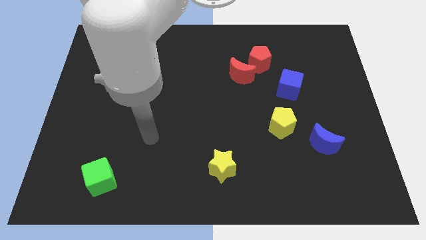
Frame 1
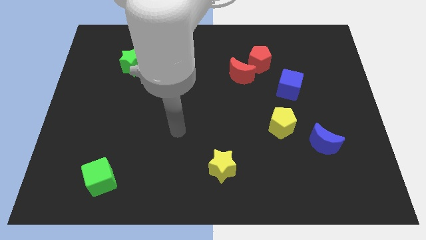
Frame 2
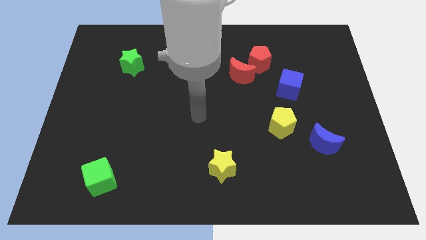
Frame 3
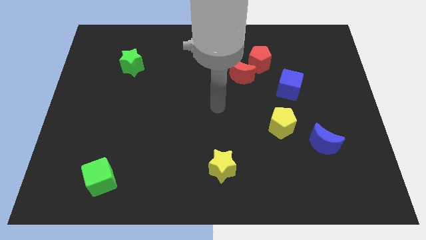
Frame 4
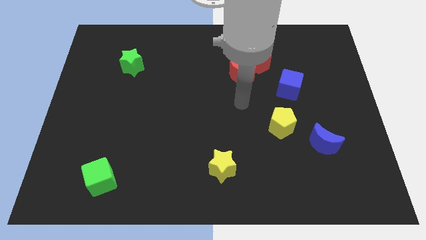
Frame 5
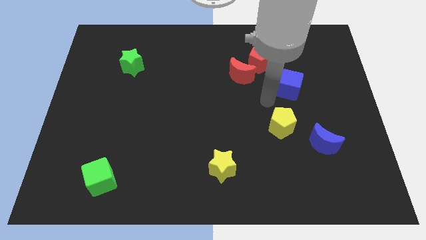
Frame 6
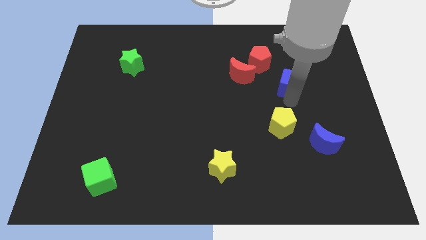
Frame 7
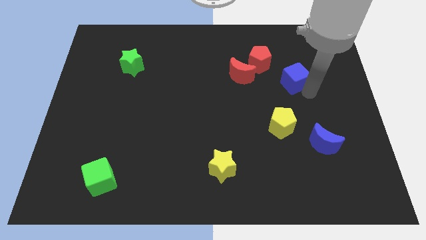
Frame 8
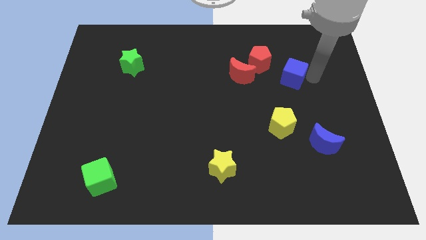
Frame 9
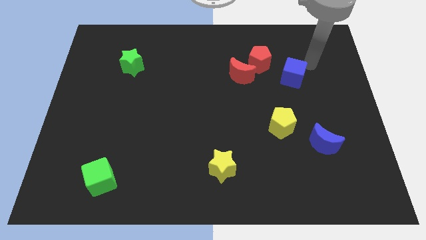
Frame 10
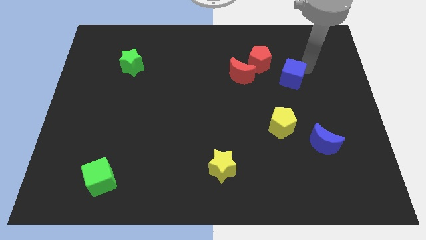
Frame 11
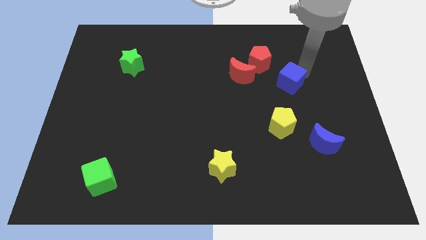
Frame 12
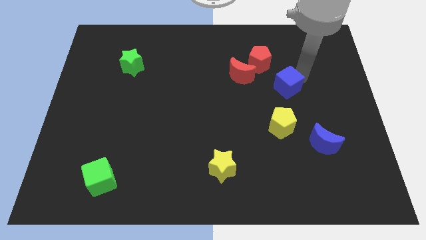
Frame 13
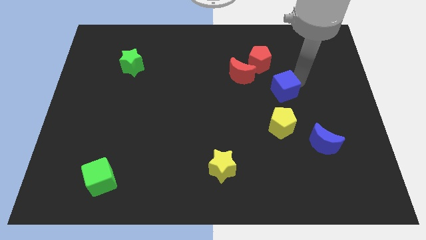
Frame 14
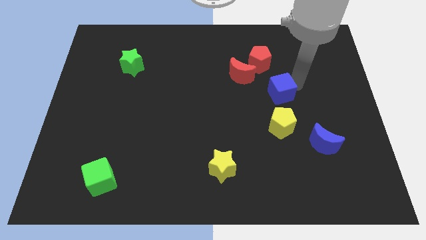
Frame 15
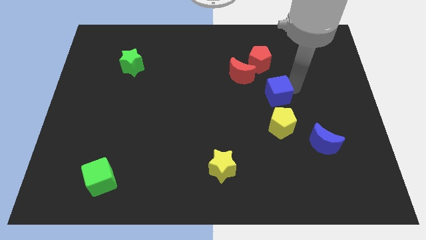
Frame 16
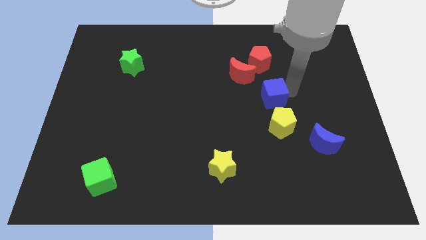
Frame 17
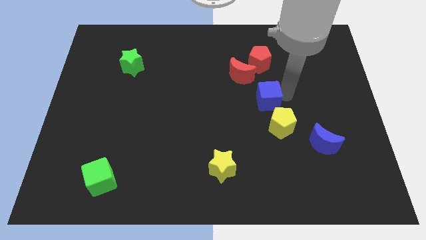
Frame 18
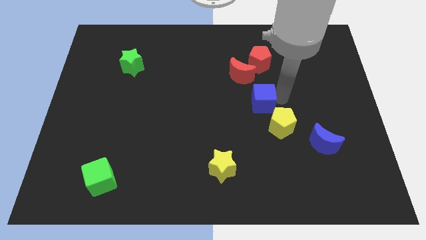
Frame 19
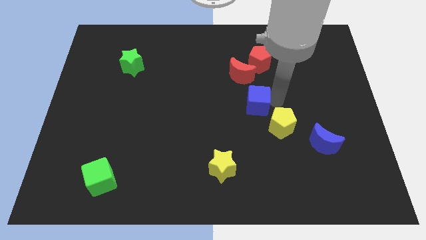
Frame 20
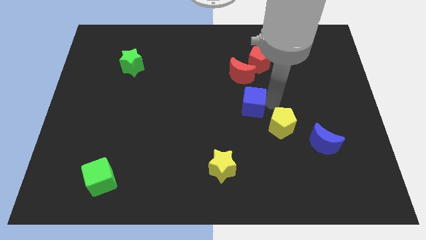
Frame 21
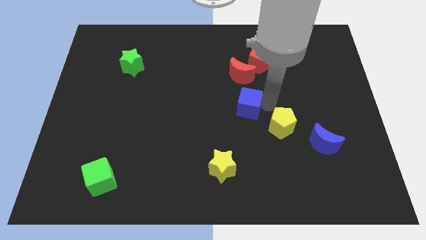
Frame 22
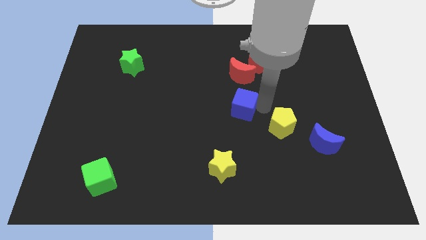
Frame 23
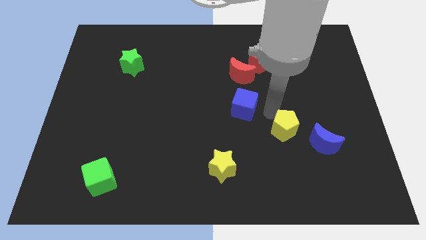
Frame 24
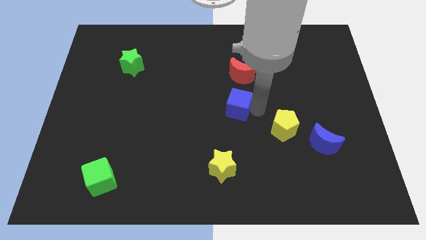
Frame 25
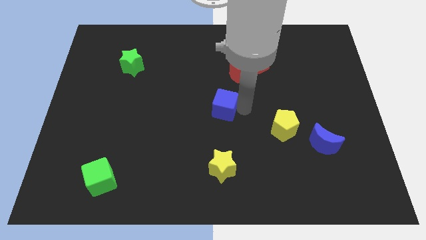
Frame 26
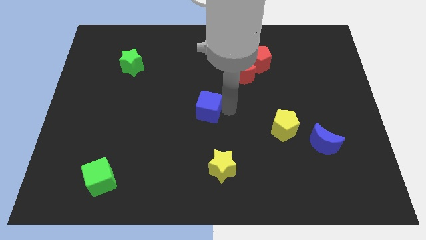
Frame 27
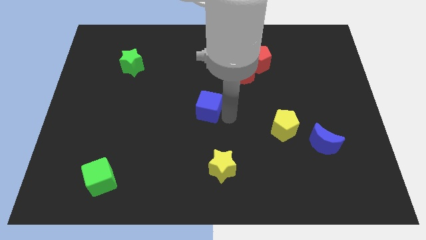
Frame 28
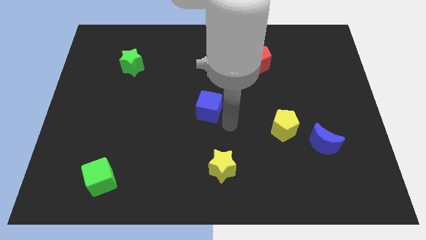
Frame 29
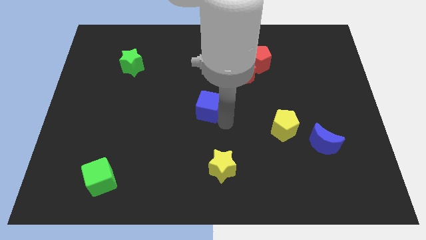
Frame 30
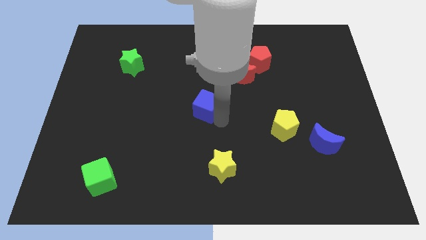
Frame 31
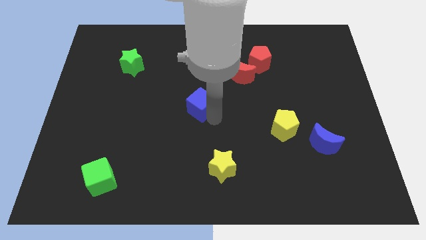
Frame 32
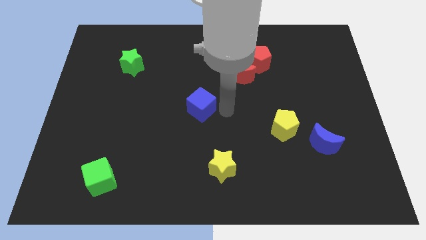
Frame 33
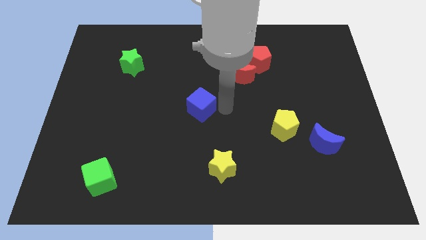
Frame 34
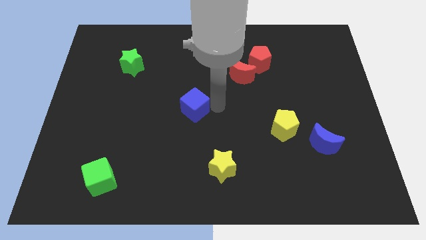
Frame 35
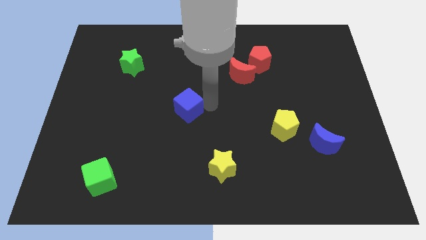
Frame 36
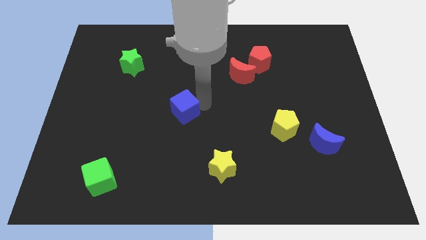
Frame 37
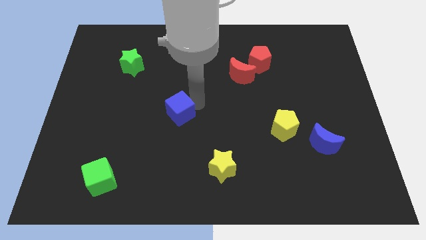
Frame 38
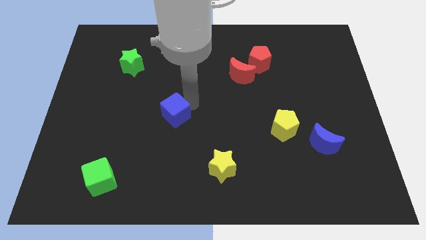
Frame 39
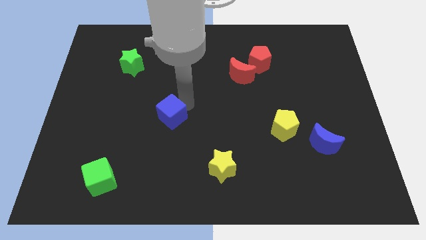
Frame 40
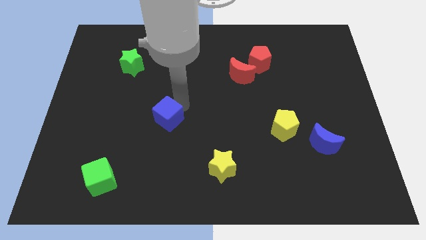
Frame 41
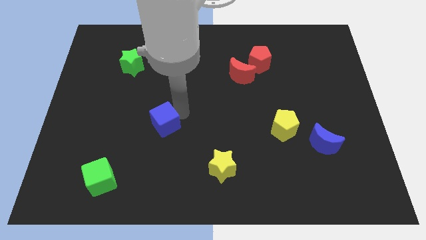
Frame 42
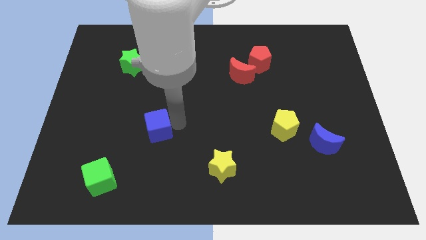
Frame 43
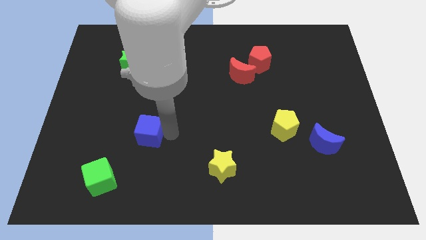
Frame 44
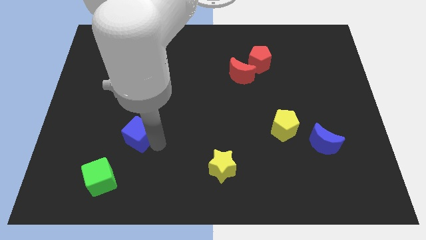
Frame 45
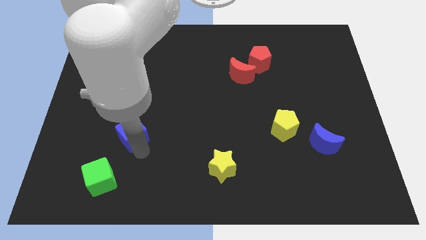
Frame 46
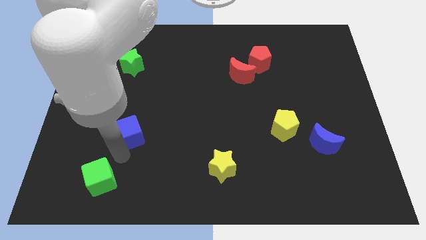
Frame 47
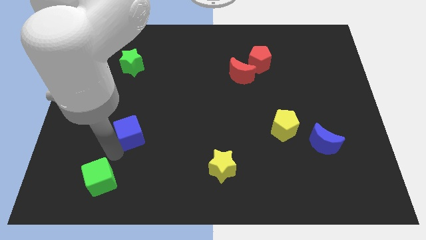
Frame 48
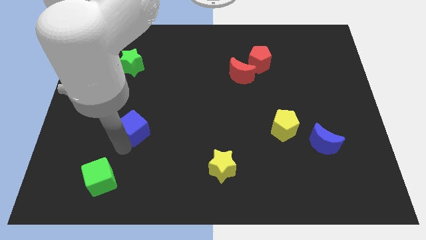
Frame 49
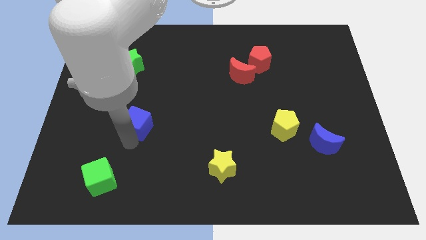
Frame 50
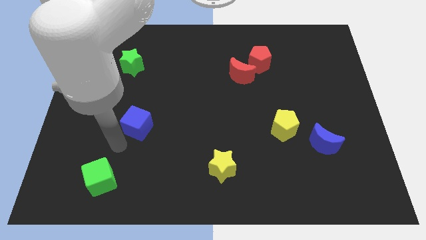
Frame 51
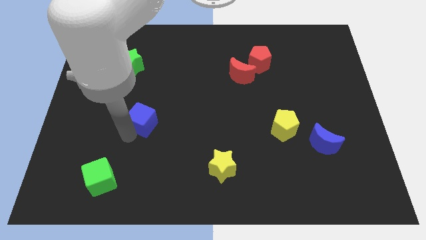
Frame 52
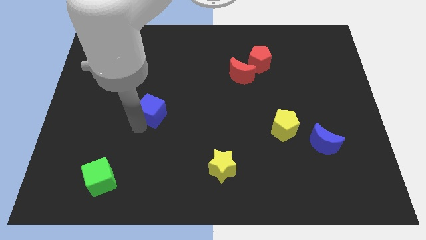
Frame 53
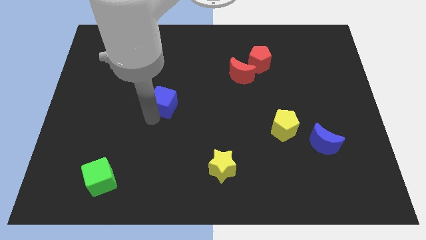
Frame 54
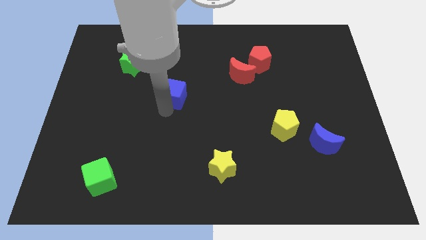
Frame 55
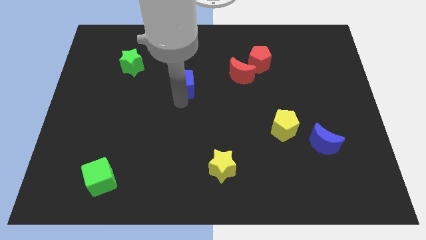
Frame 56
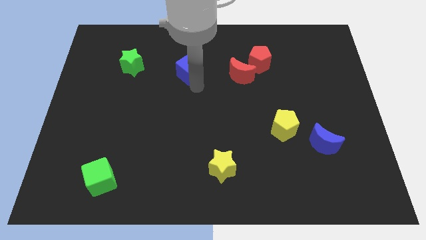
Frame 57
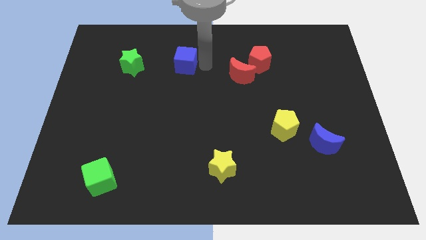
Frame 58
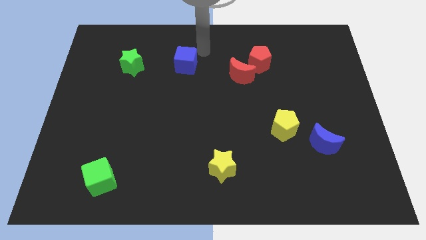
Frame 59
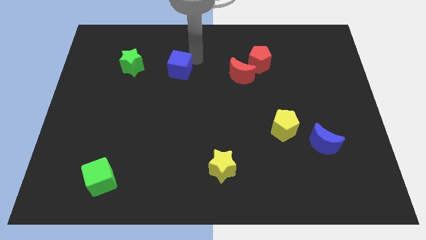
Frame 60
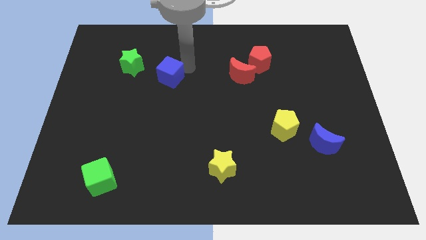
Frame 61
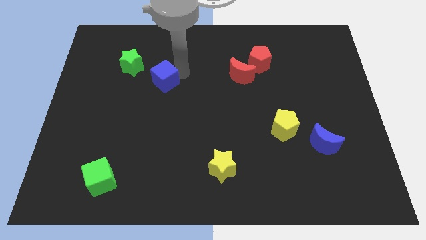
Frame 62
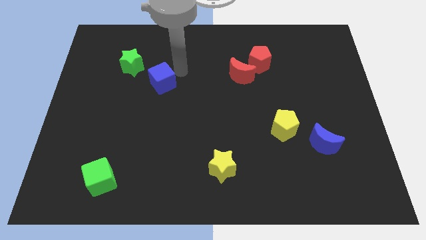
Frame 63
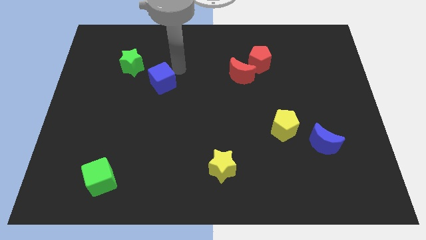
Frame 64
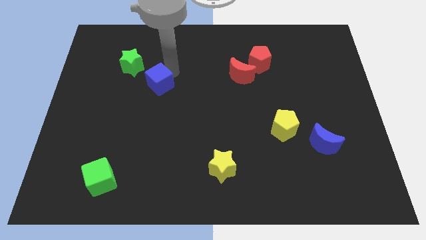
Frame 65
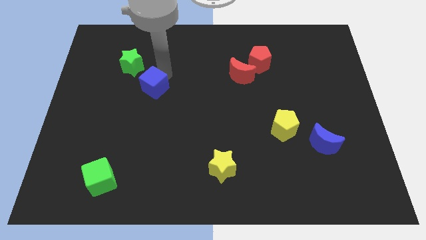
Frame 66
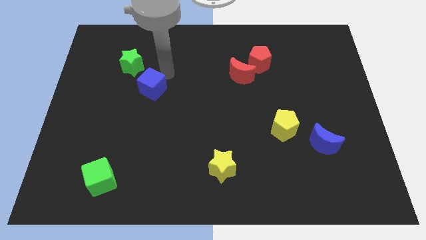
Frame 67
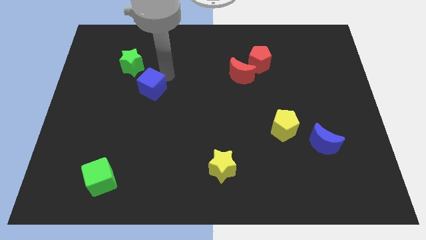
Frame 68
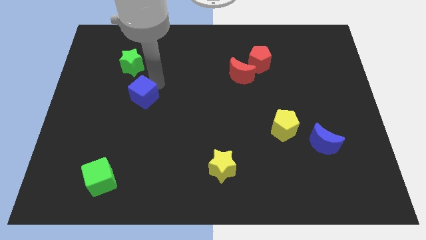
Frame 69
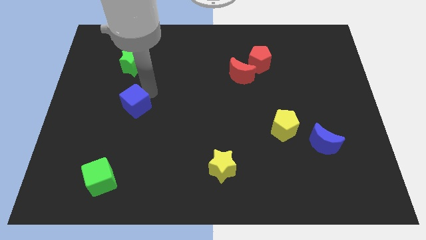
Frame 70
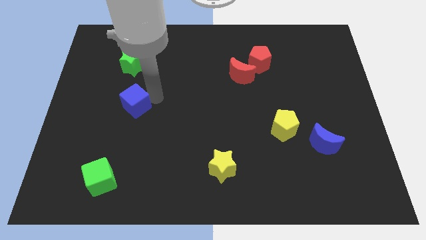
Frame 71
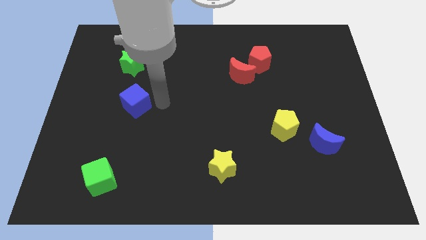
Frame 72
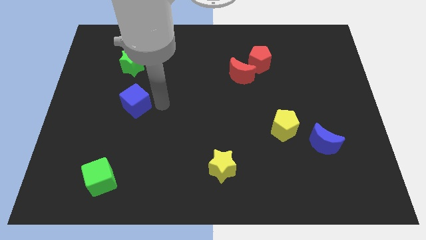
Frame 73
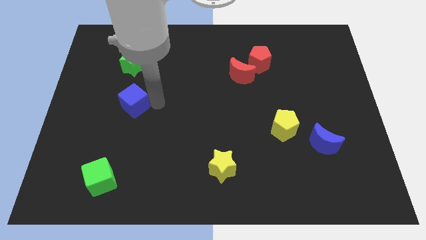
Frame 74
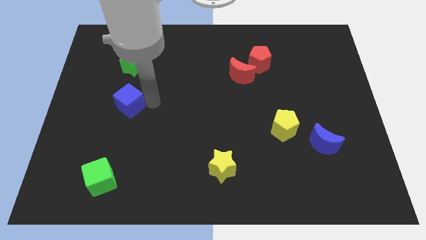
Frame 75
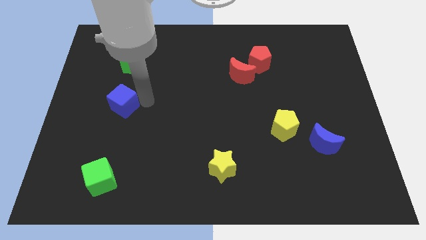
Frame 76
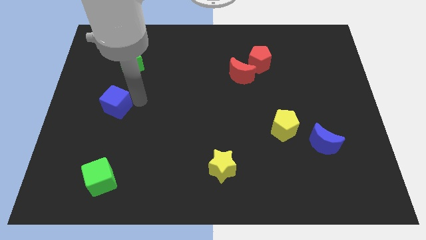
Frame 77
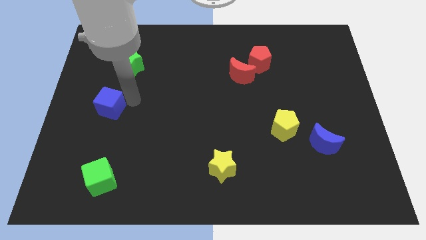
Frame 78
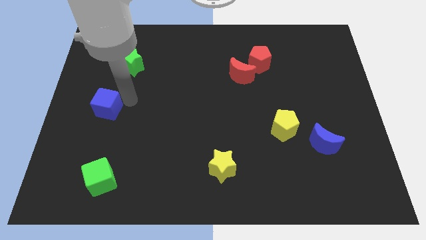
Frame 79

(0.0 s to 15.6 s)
move the blue cube to the left side
